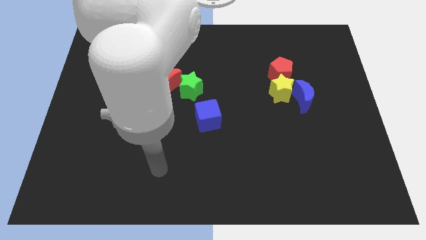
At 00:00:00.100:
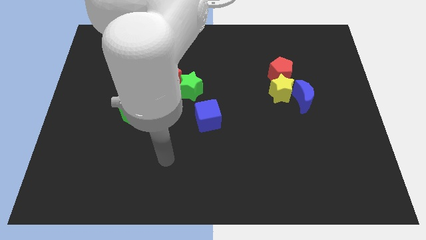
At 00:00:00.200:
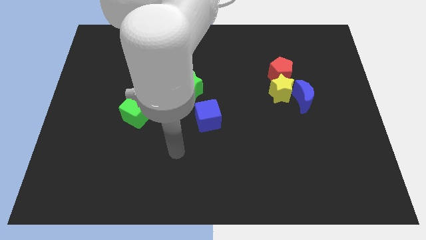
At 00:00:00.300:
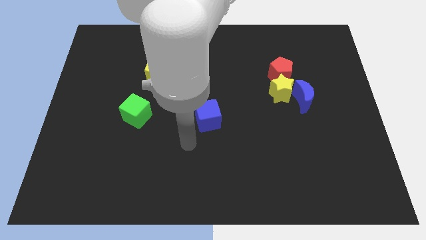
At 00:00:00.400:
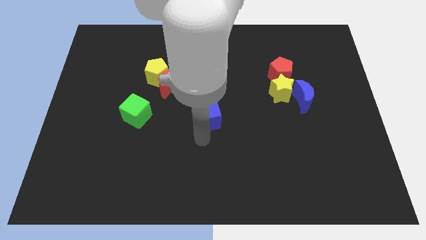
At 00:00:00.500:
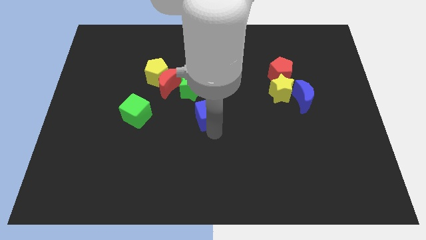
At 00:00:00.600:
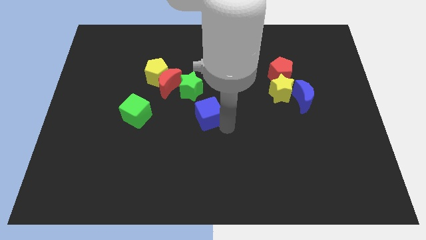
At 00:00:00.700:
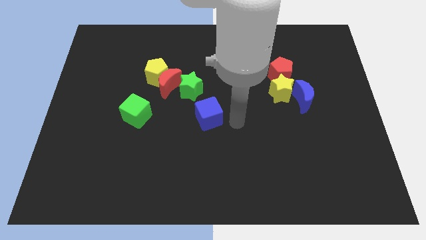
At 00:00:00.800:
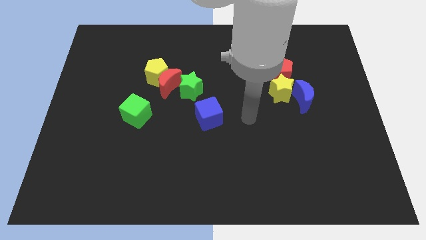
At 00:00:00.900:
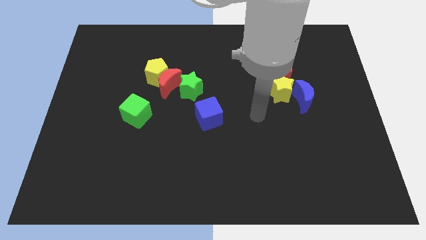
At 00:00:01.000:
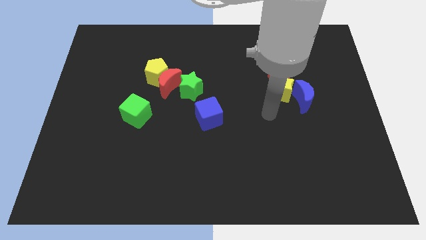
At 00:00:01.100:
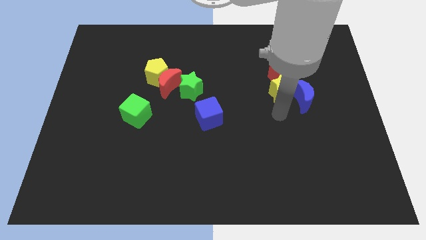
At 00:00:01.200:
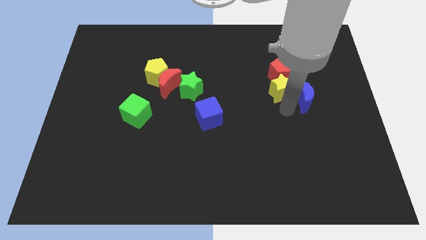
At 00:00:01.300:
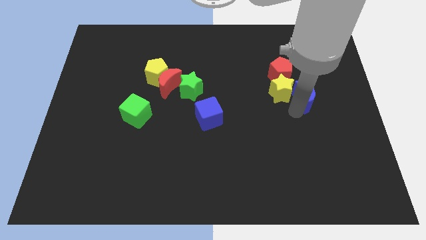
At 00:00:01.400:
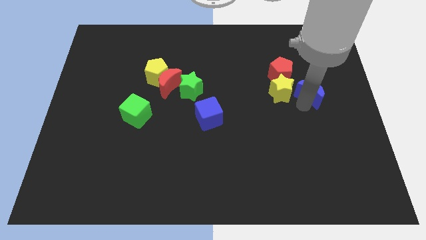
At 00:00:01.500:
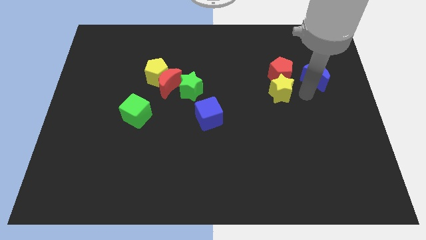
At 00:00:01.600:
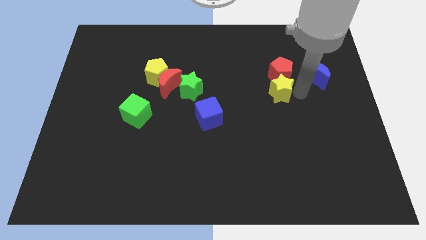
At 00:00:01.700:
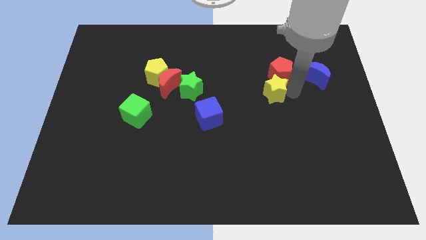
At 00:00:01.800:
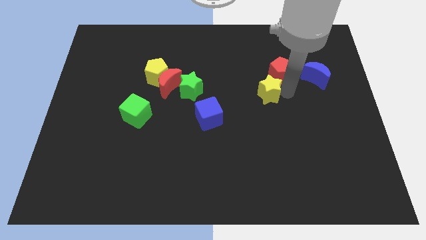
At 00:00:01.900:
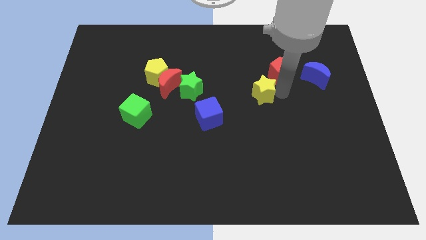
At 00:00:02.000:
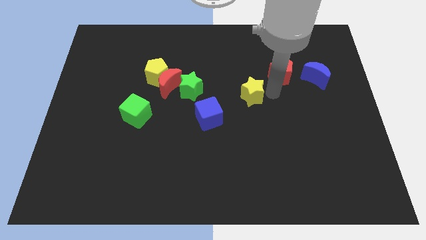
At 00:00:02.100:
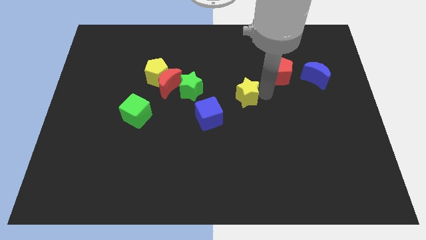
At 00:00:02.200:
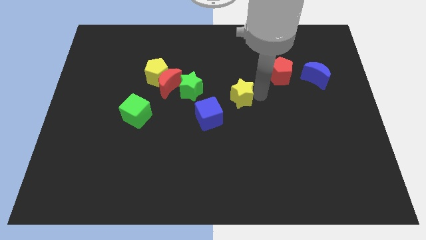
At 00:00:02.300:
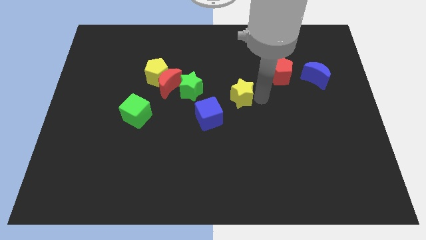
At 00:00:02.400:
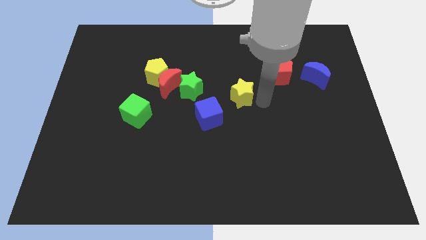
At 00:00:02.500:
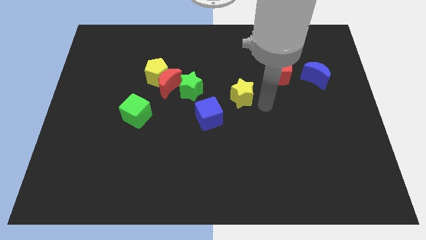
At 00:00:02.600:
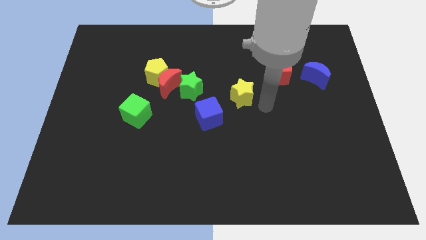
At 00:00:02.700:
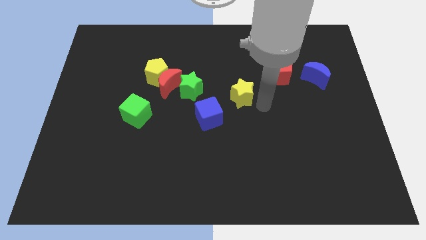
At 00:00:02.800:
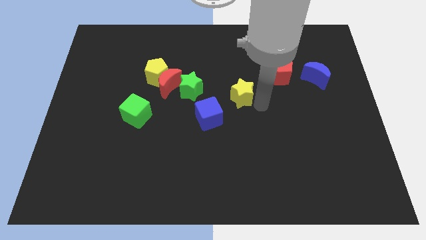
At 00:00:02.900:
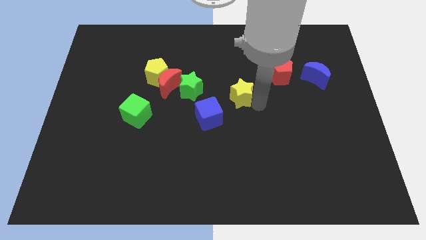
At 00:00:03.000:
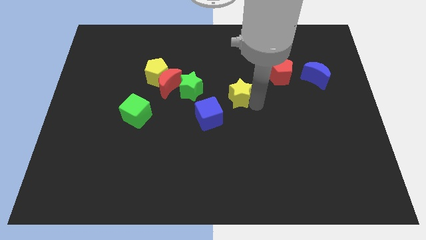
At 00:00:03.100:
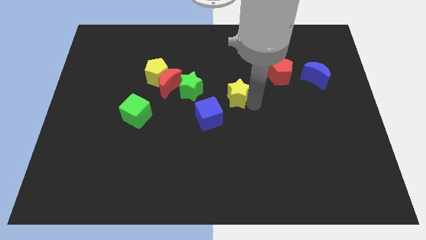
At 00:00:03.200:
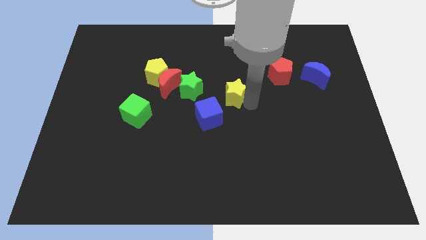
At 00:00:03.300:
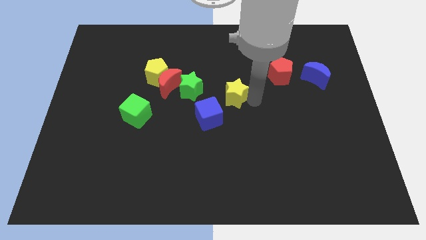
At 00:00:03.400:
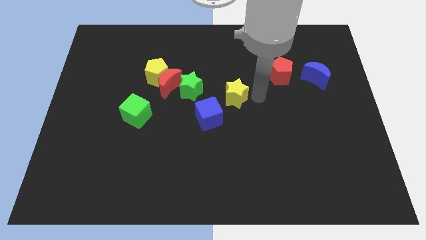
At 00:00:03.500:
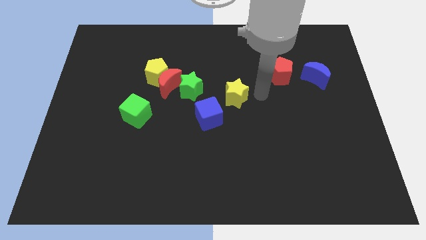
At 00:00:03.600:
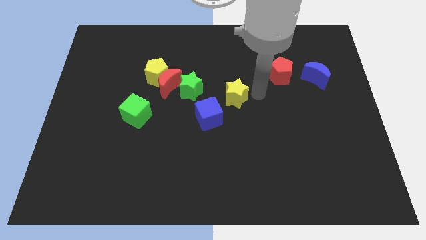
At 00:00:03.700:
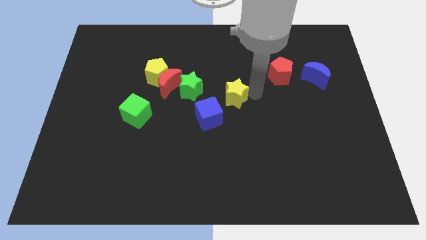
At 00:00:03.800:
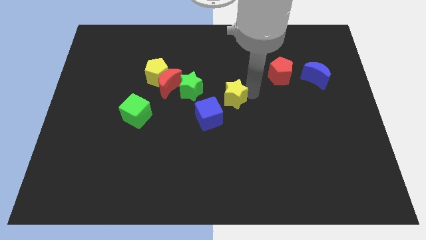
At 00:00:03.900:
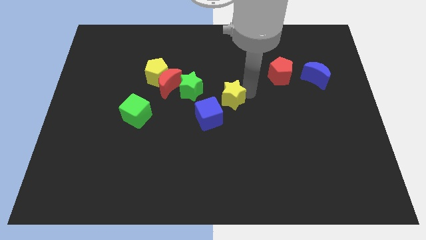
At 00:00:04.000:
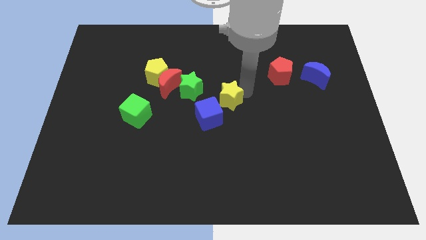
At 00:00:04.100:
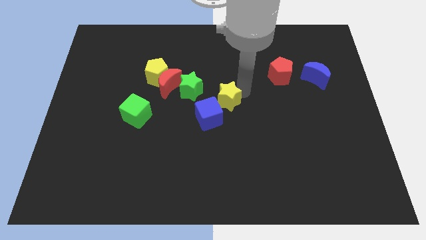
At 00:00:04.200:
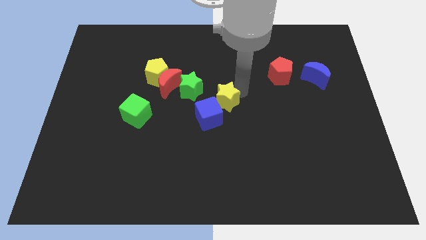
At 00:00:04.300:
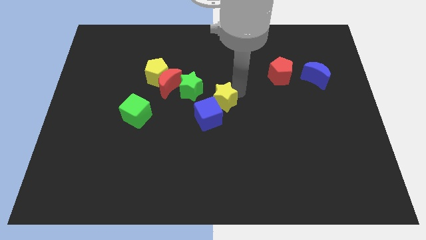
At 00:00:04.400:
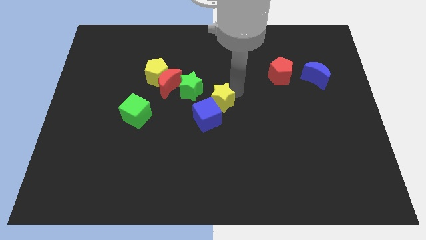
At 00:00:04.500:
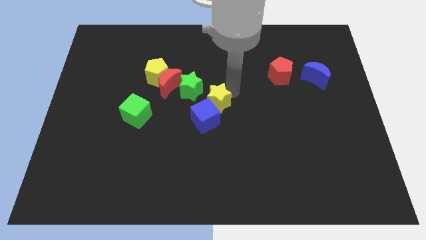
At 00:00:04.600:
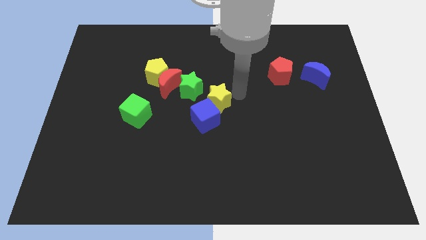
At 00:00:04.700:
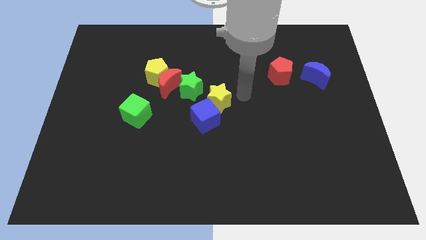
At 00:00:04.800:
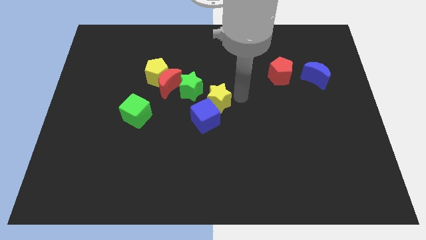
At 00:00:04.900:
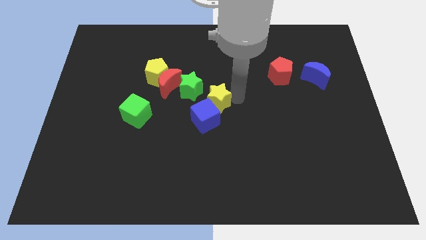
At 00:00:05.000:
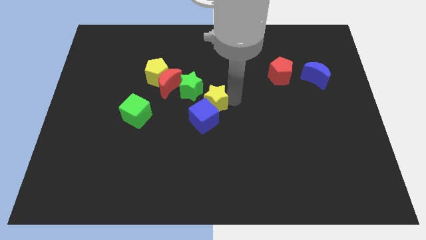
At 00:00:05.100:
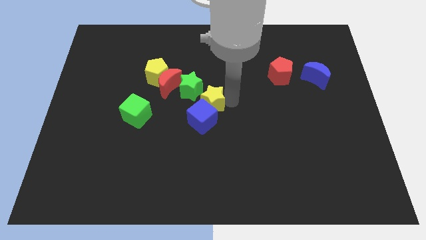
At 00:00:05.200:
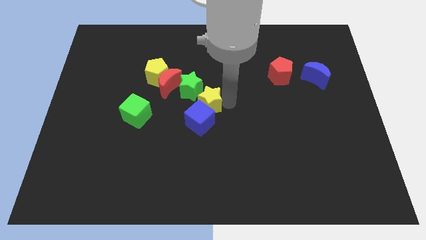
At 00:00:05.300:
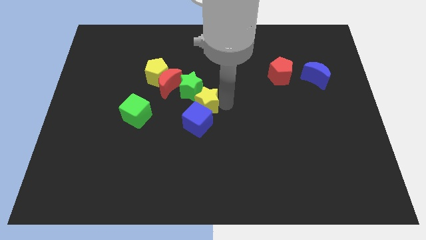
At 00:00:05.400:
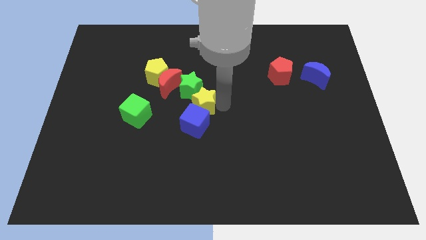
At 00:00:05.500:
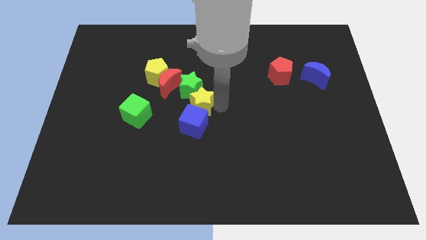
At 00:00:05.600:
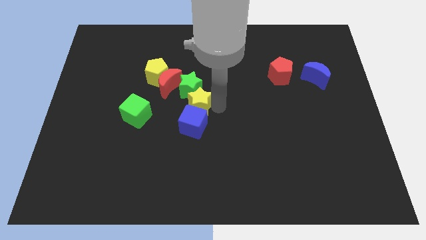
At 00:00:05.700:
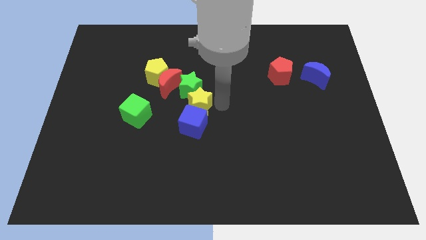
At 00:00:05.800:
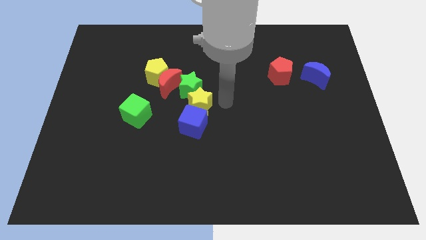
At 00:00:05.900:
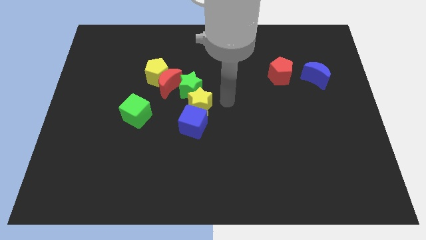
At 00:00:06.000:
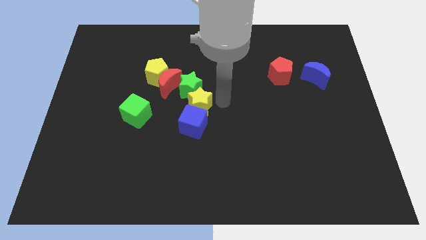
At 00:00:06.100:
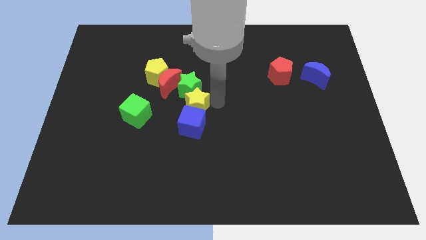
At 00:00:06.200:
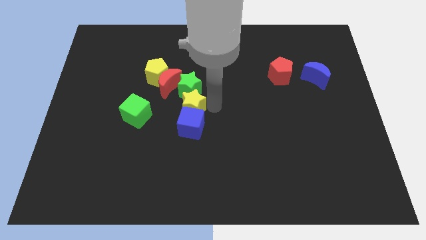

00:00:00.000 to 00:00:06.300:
slide the yellow star to the left

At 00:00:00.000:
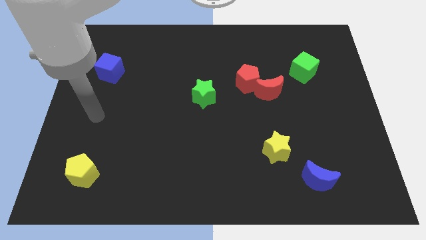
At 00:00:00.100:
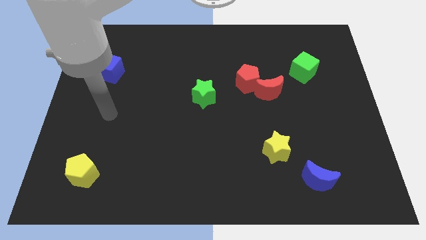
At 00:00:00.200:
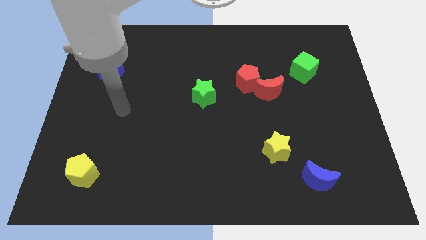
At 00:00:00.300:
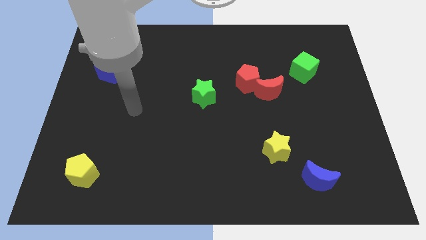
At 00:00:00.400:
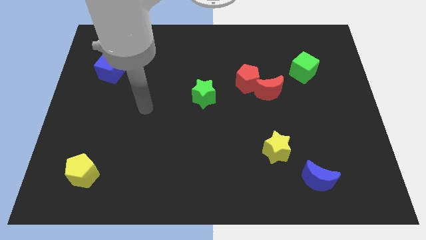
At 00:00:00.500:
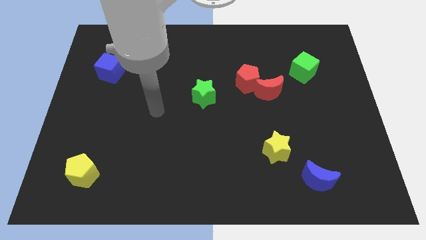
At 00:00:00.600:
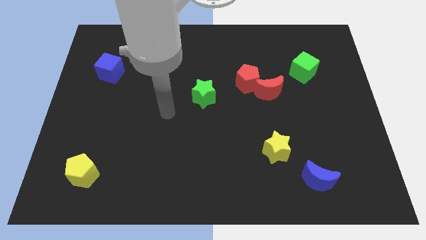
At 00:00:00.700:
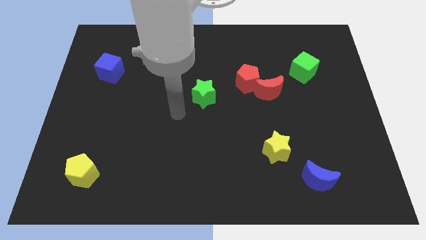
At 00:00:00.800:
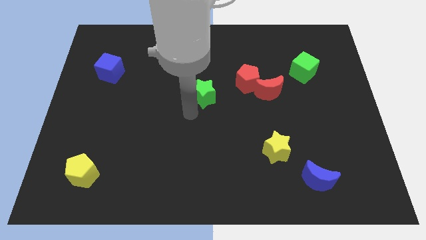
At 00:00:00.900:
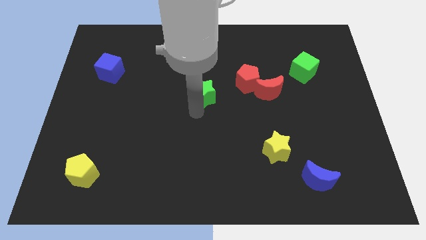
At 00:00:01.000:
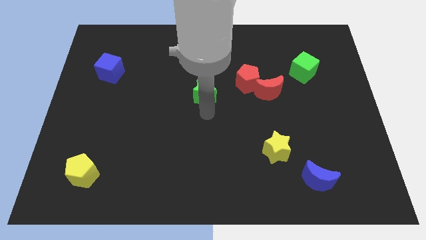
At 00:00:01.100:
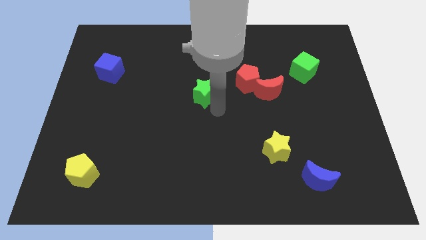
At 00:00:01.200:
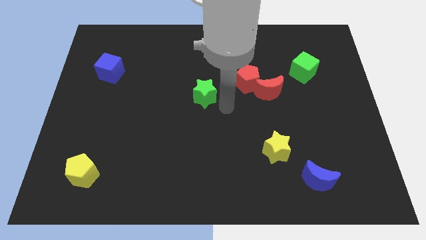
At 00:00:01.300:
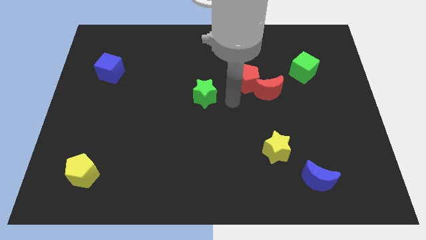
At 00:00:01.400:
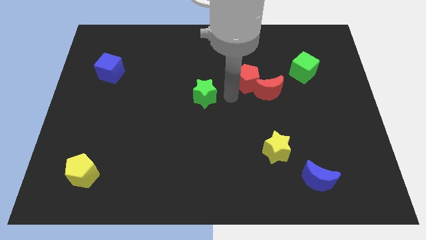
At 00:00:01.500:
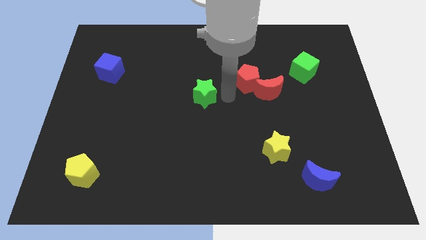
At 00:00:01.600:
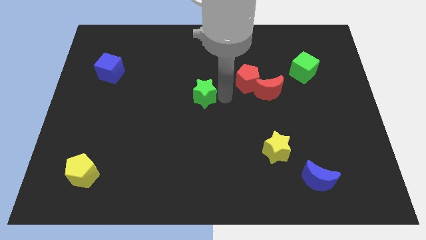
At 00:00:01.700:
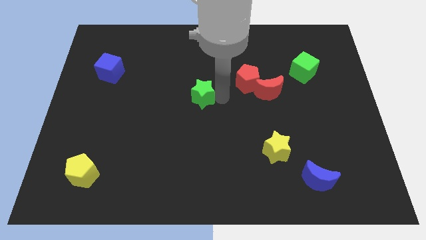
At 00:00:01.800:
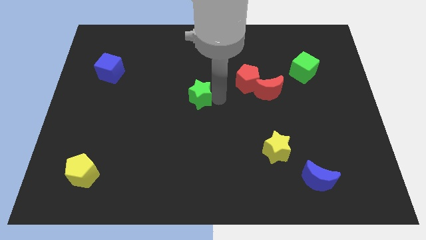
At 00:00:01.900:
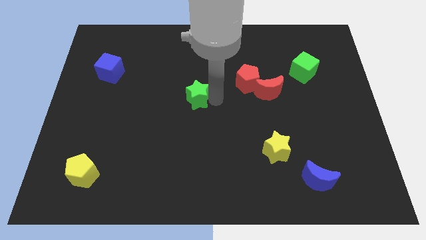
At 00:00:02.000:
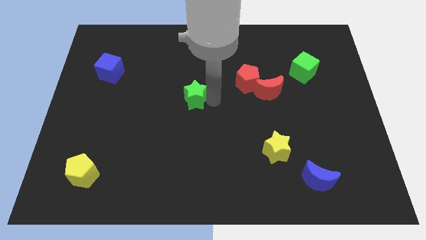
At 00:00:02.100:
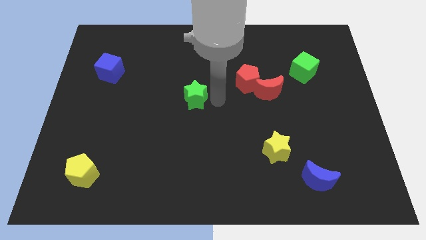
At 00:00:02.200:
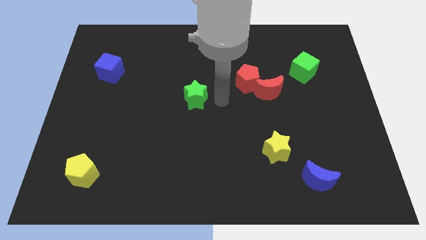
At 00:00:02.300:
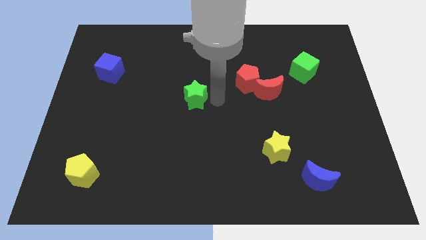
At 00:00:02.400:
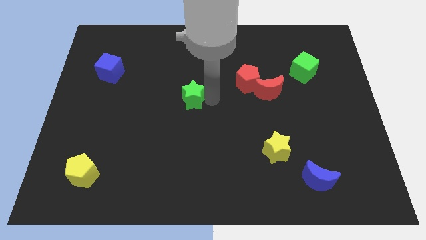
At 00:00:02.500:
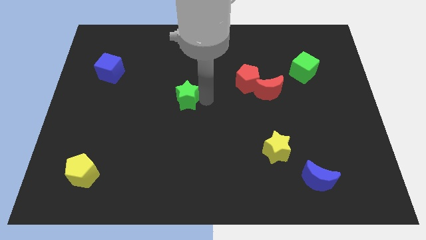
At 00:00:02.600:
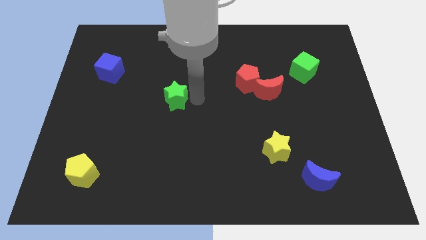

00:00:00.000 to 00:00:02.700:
slide the green star a bit left
